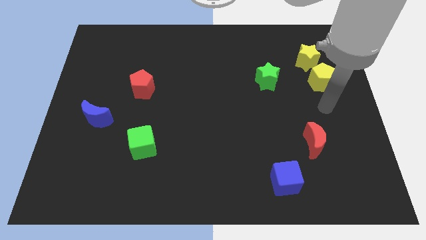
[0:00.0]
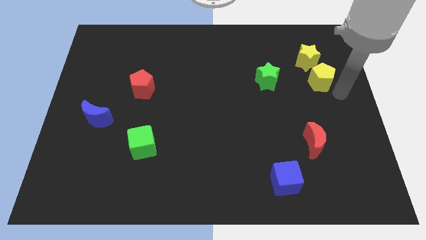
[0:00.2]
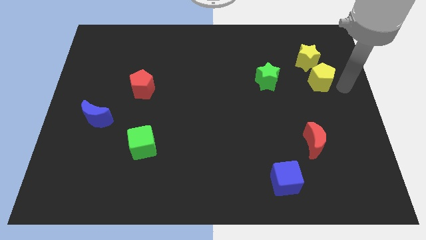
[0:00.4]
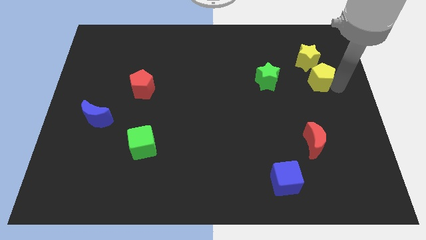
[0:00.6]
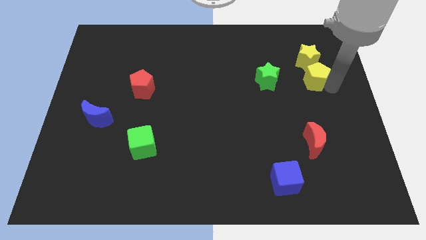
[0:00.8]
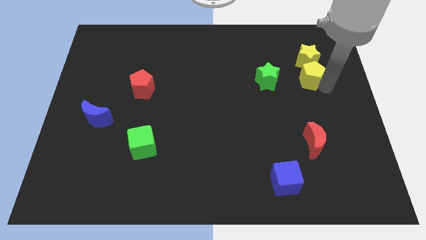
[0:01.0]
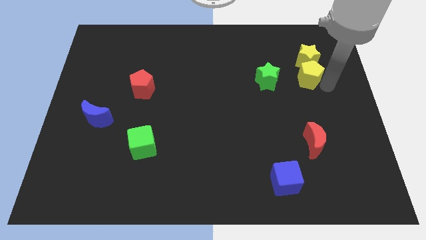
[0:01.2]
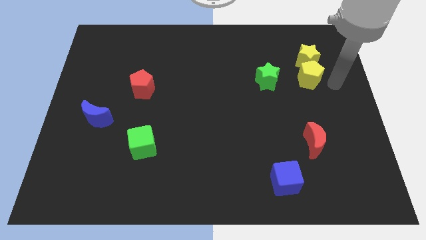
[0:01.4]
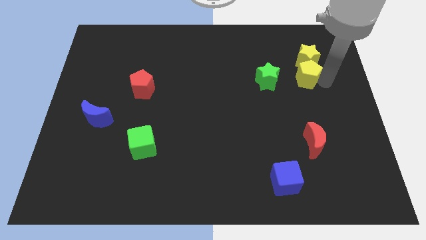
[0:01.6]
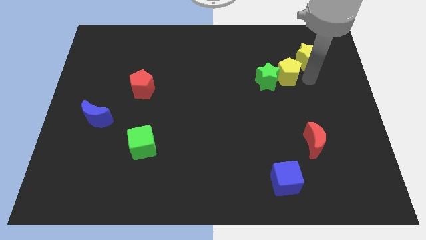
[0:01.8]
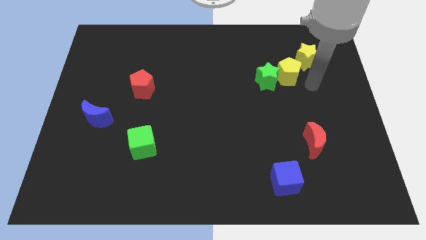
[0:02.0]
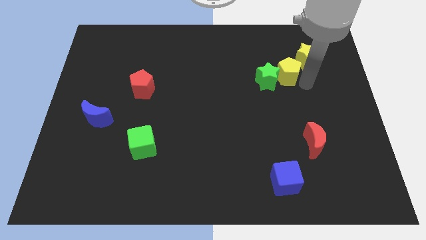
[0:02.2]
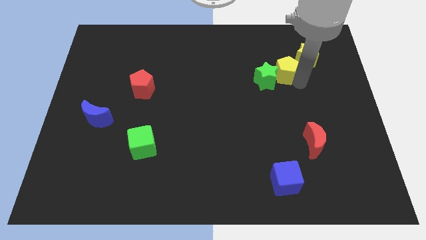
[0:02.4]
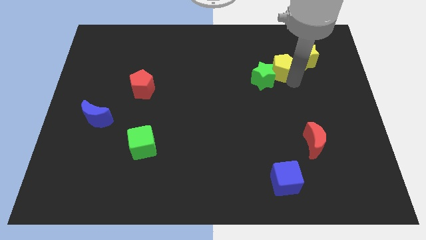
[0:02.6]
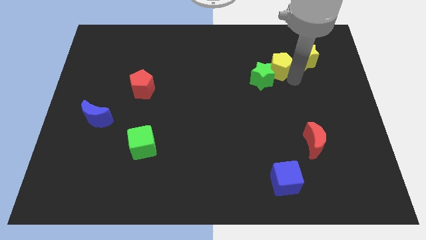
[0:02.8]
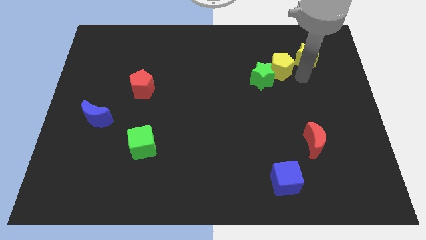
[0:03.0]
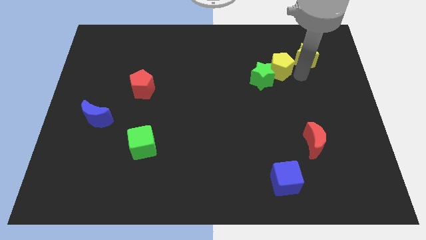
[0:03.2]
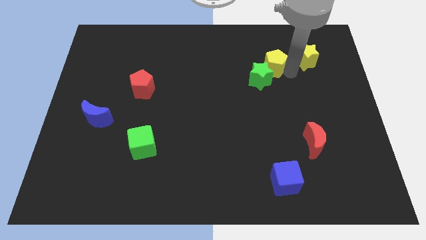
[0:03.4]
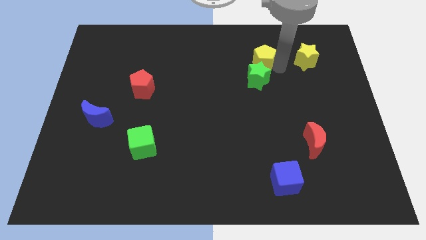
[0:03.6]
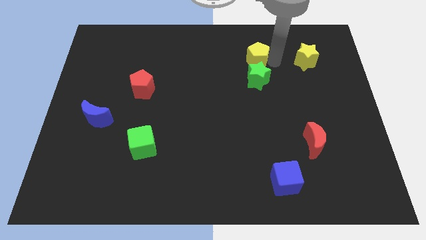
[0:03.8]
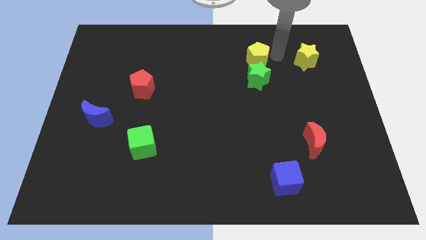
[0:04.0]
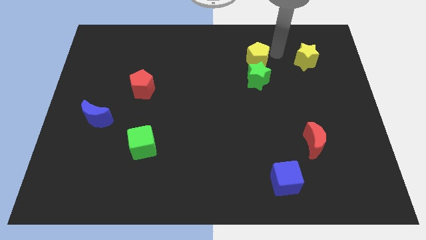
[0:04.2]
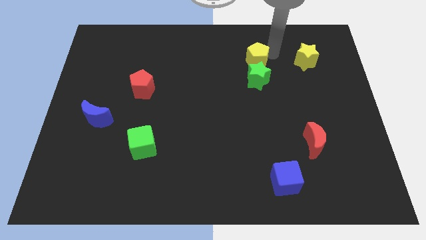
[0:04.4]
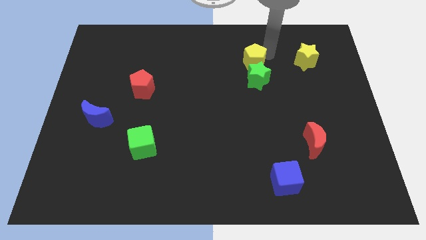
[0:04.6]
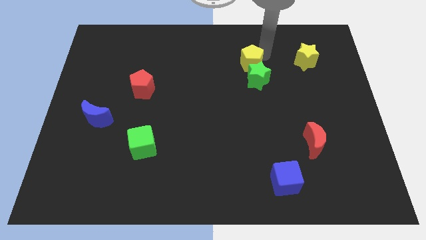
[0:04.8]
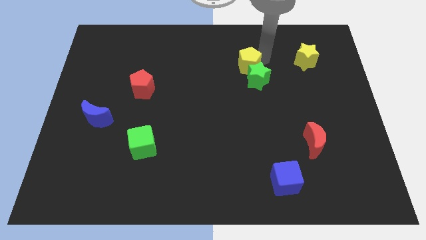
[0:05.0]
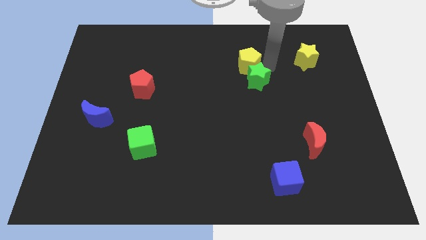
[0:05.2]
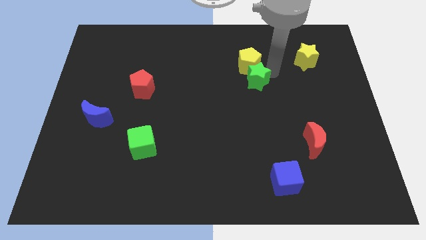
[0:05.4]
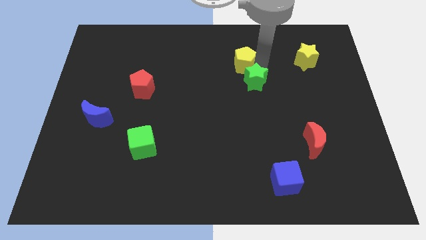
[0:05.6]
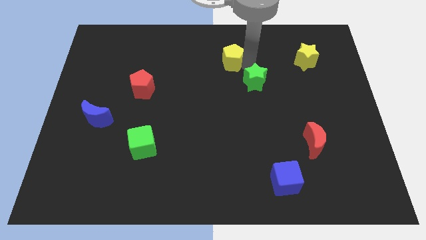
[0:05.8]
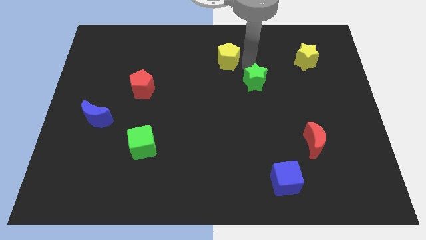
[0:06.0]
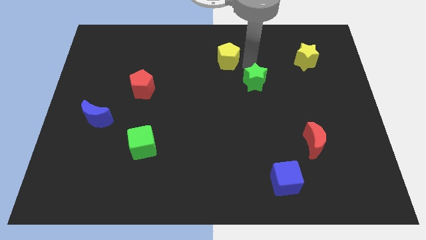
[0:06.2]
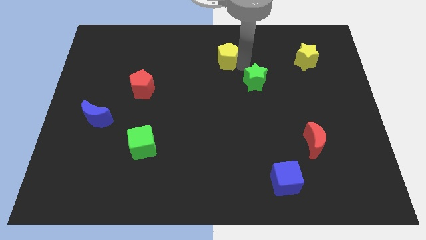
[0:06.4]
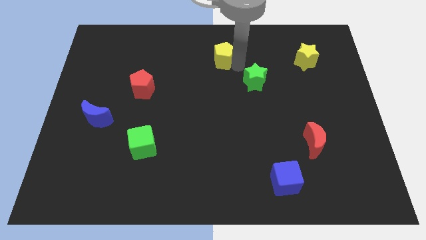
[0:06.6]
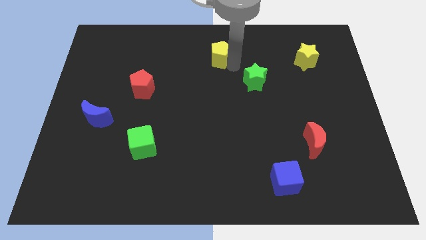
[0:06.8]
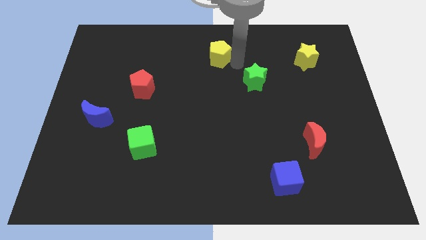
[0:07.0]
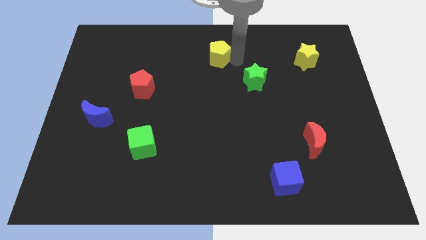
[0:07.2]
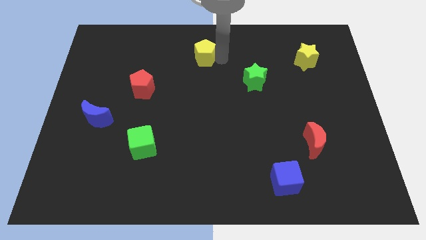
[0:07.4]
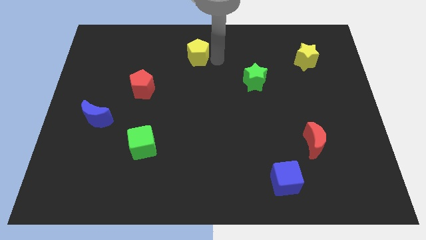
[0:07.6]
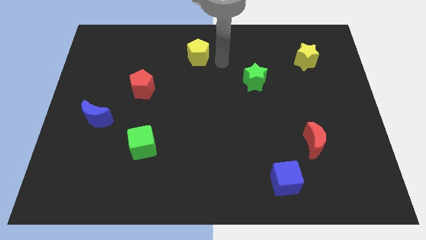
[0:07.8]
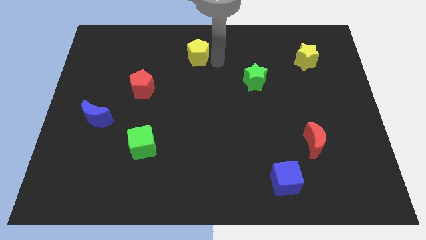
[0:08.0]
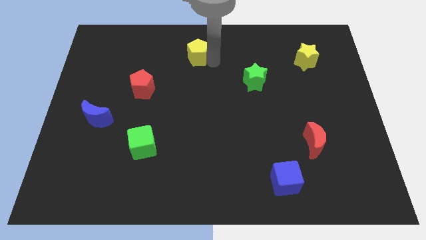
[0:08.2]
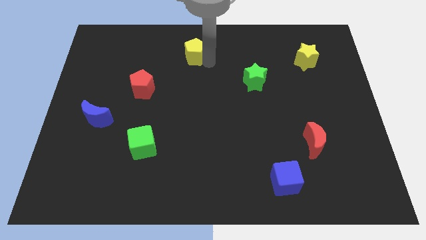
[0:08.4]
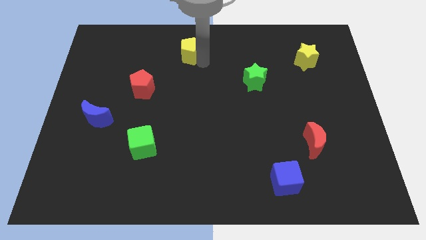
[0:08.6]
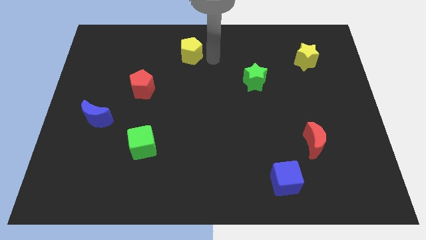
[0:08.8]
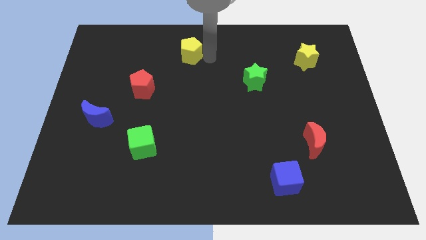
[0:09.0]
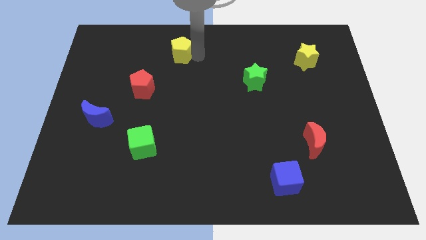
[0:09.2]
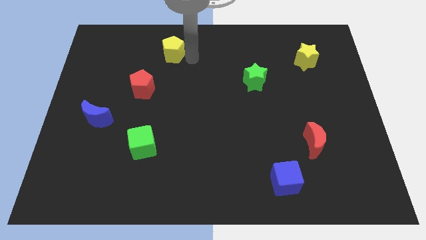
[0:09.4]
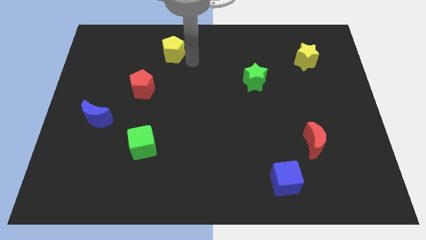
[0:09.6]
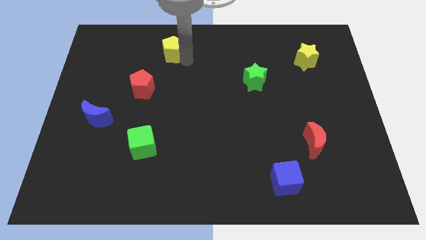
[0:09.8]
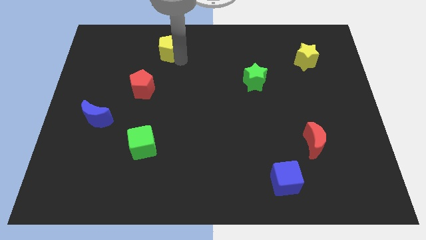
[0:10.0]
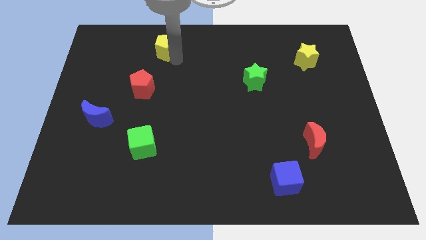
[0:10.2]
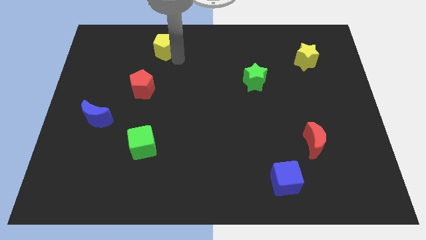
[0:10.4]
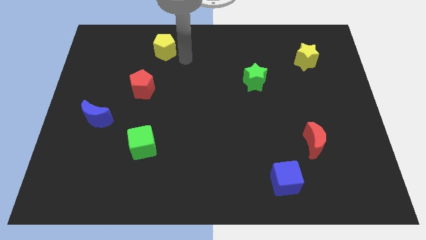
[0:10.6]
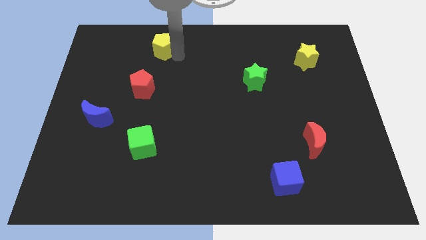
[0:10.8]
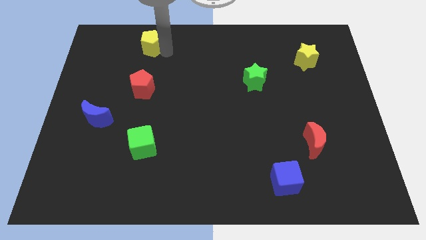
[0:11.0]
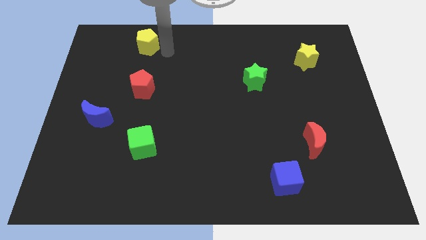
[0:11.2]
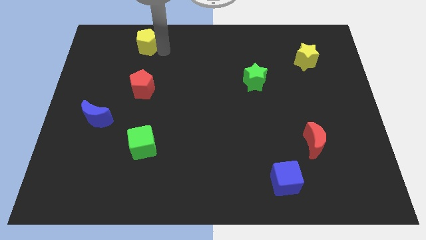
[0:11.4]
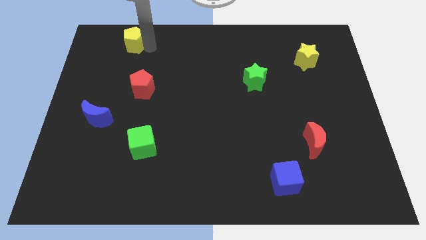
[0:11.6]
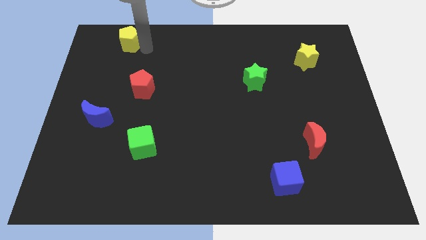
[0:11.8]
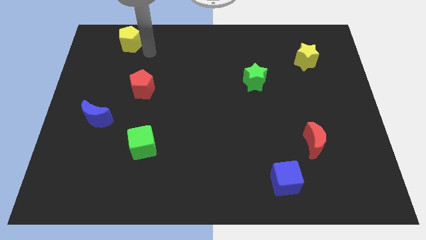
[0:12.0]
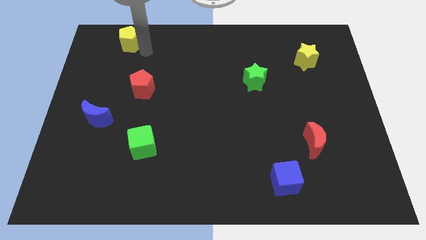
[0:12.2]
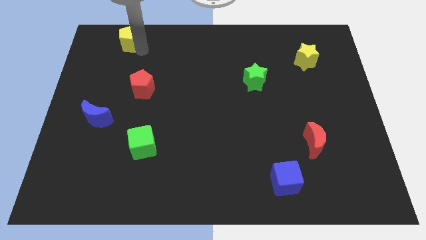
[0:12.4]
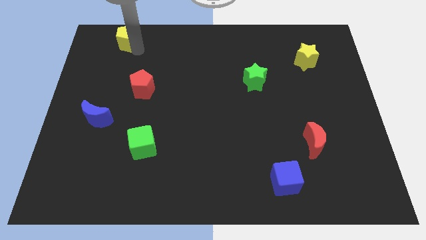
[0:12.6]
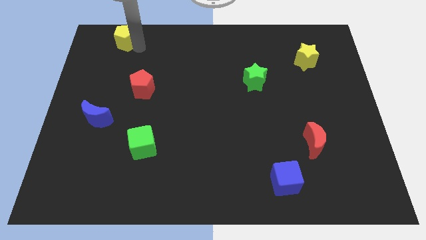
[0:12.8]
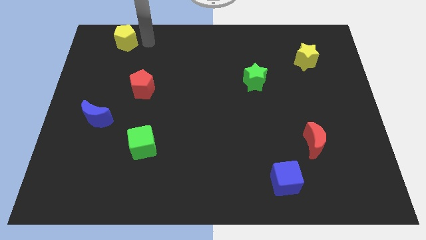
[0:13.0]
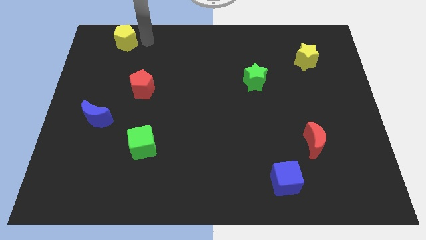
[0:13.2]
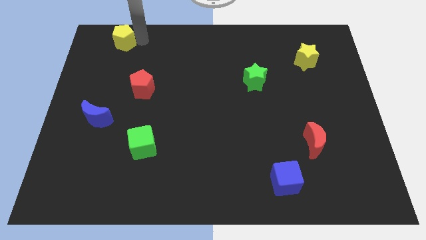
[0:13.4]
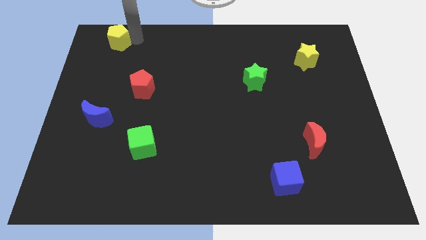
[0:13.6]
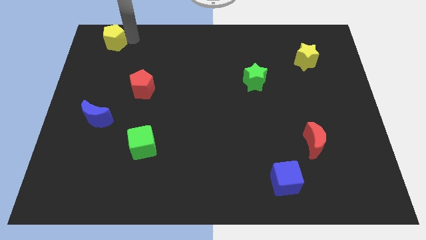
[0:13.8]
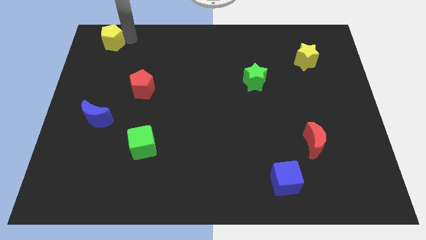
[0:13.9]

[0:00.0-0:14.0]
put the yellow pentagon to the top left of the board
